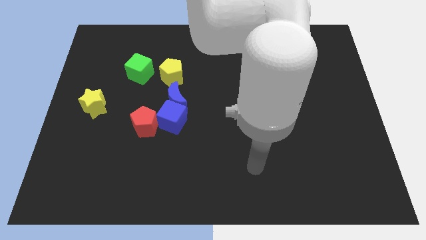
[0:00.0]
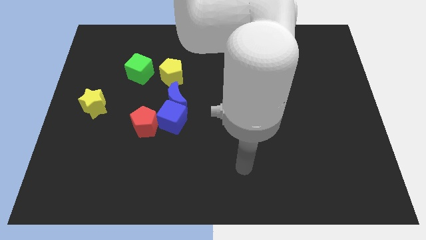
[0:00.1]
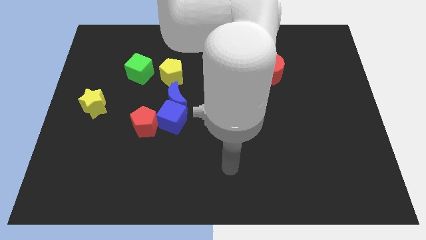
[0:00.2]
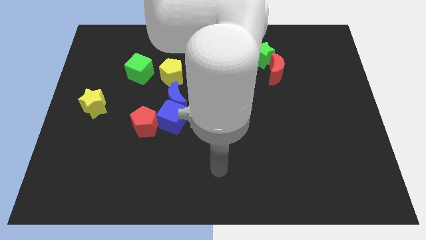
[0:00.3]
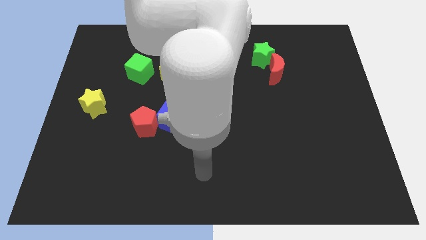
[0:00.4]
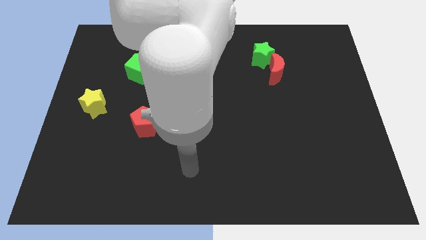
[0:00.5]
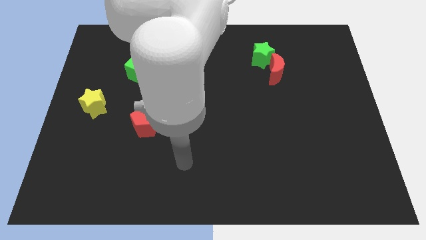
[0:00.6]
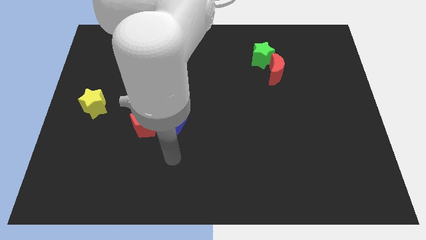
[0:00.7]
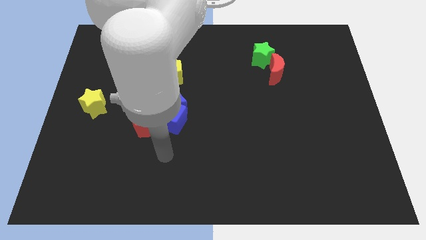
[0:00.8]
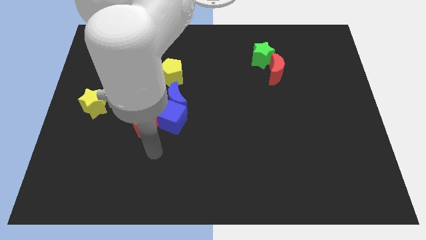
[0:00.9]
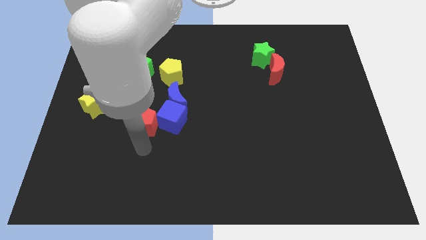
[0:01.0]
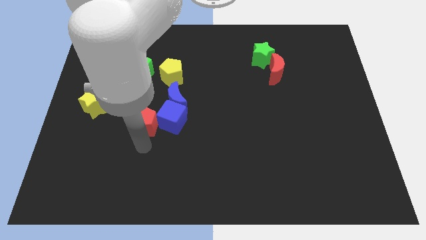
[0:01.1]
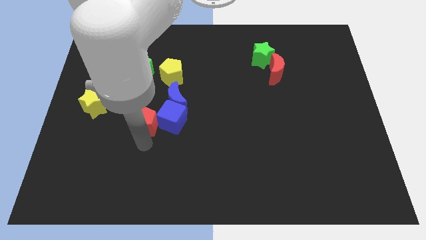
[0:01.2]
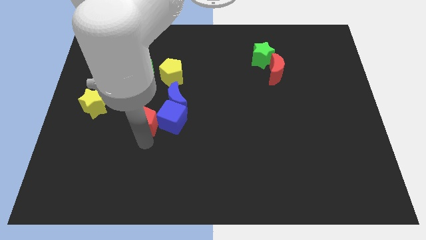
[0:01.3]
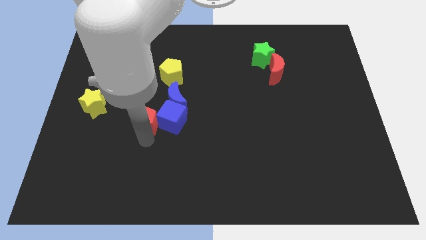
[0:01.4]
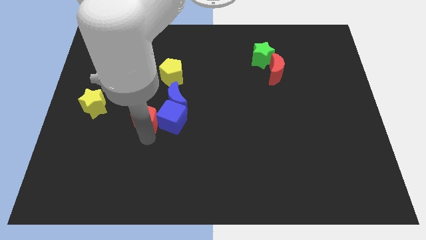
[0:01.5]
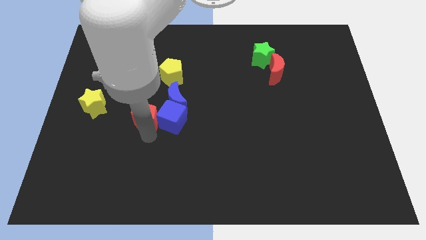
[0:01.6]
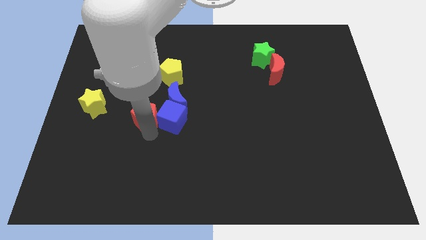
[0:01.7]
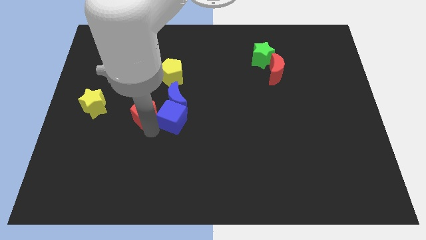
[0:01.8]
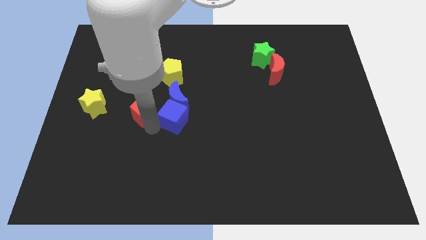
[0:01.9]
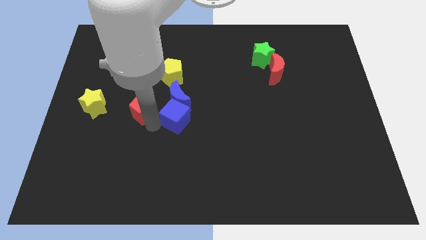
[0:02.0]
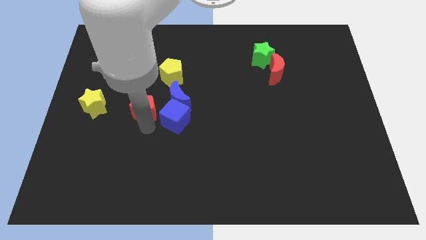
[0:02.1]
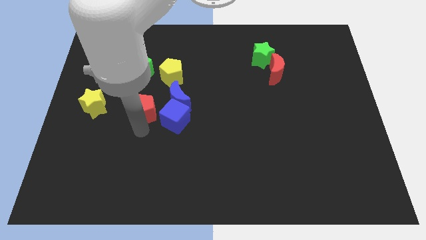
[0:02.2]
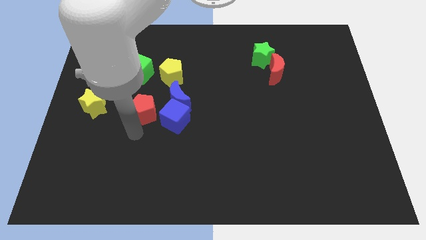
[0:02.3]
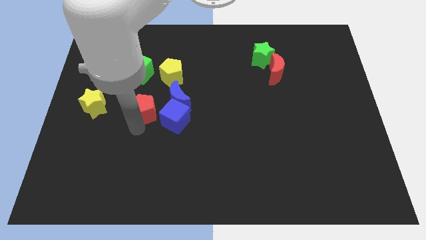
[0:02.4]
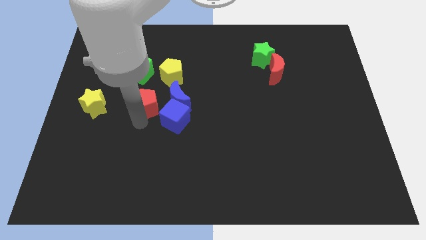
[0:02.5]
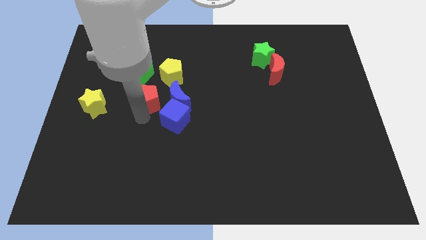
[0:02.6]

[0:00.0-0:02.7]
move the red pentagon upwards a little bit

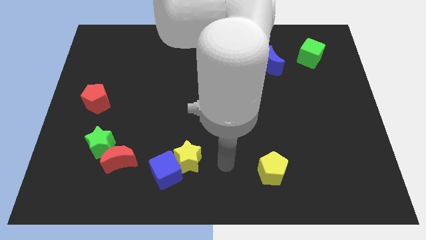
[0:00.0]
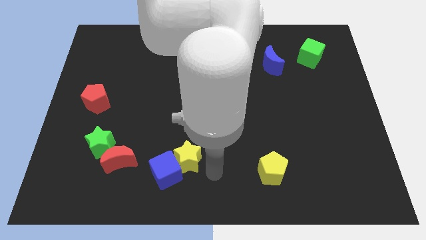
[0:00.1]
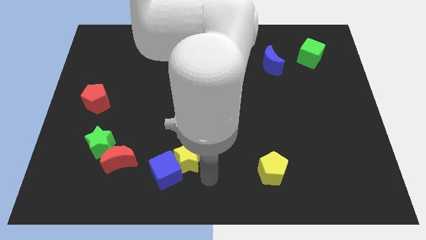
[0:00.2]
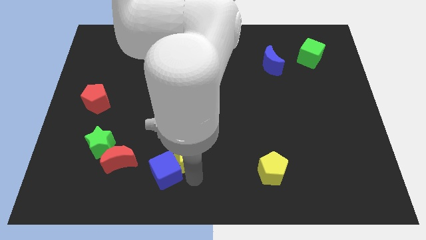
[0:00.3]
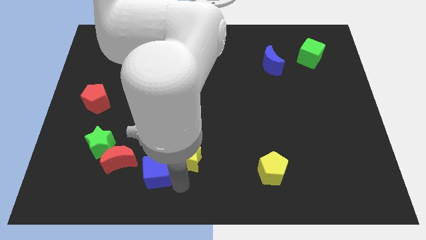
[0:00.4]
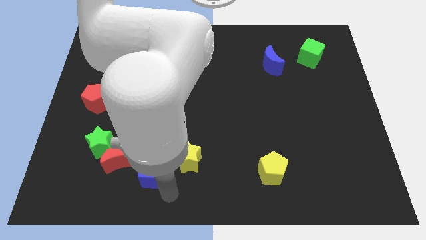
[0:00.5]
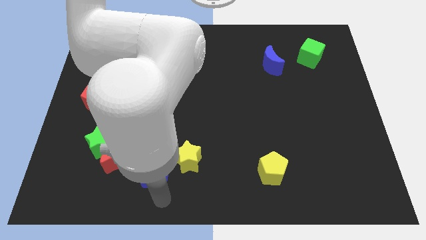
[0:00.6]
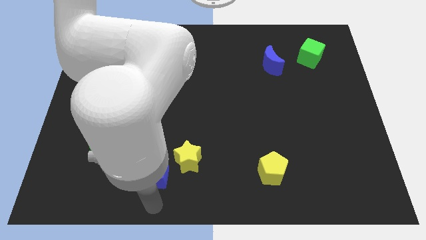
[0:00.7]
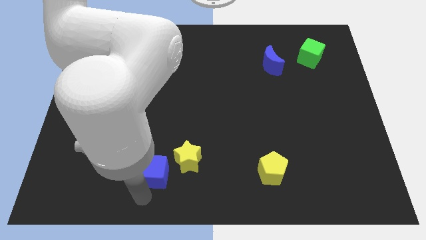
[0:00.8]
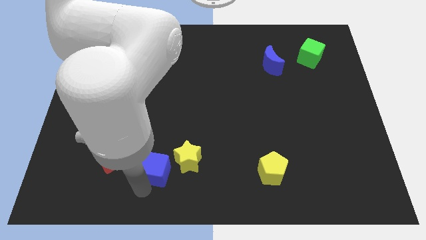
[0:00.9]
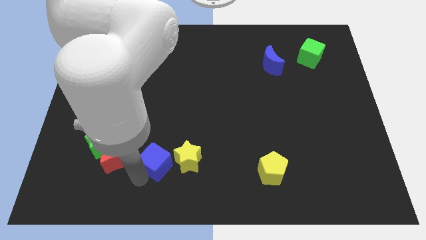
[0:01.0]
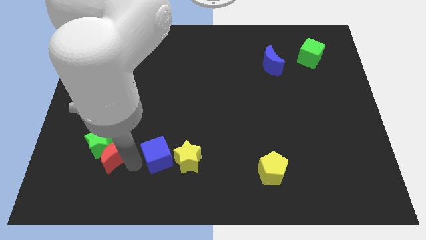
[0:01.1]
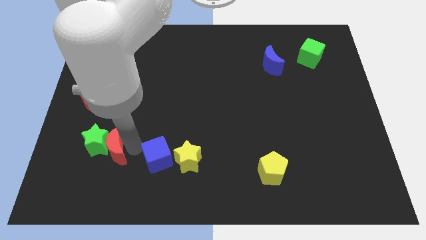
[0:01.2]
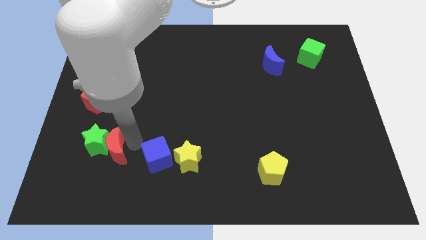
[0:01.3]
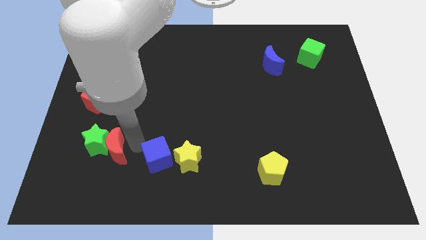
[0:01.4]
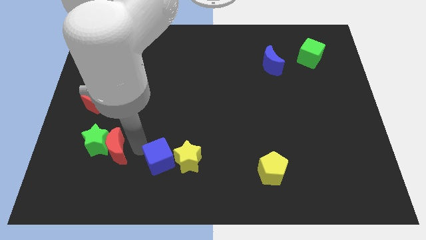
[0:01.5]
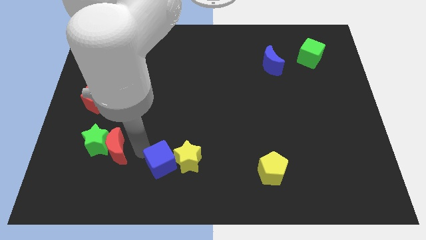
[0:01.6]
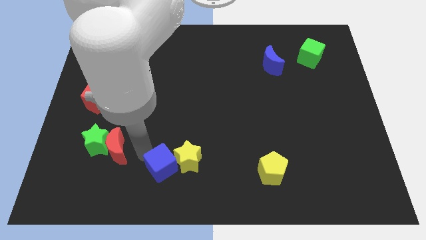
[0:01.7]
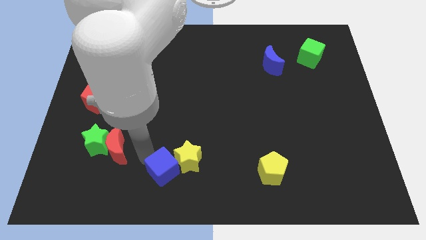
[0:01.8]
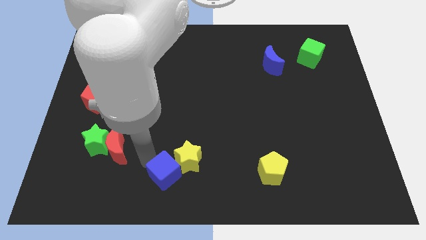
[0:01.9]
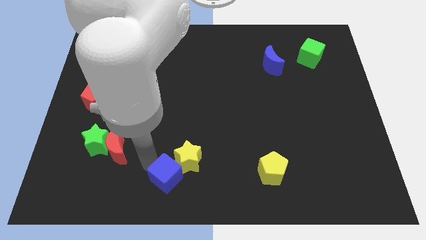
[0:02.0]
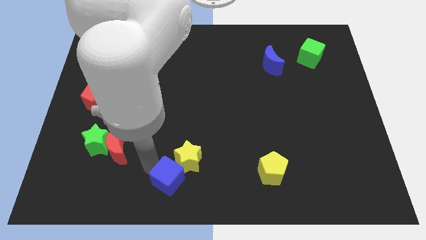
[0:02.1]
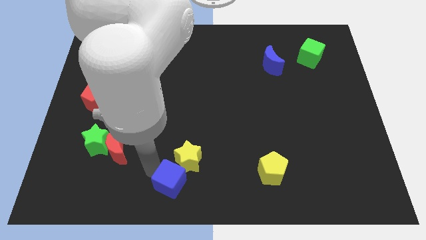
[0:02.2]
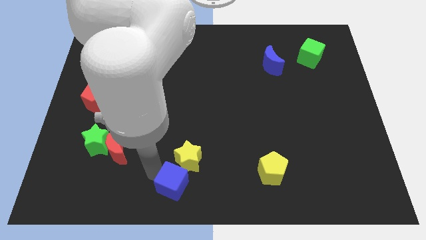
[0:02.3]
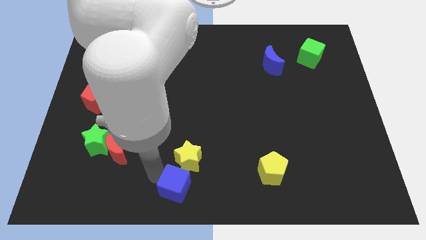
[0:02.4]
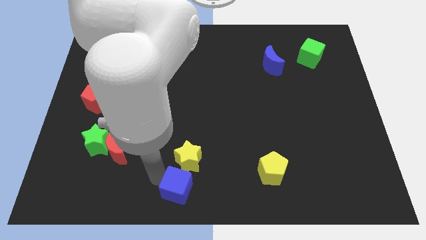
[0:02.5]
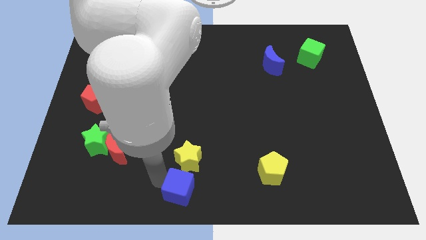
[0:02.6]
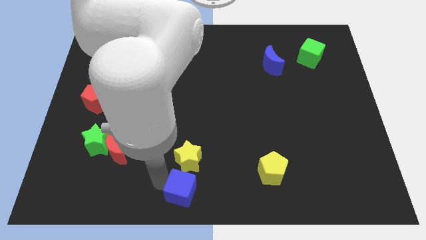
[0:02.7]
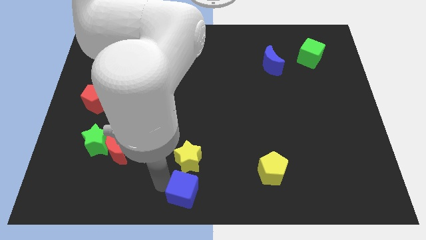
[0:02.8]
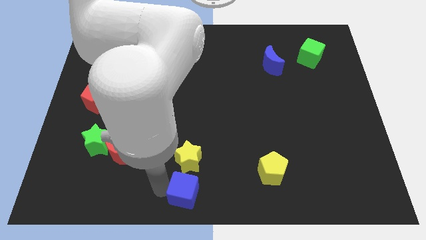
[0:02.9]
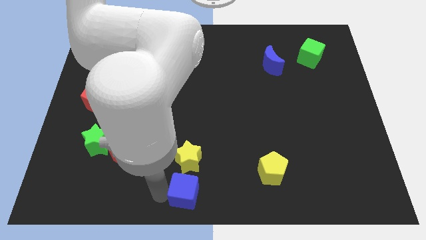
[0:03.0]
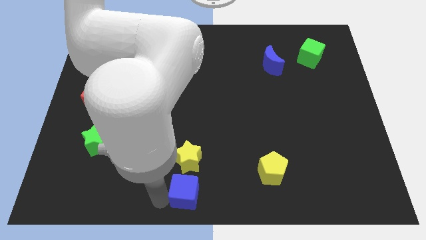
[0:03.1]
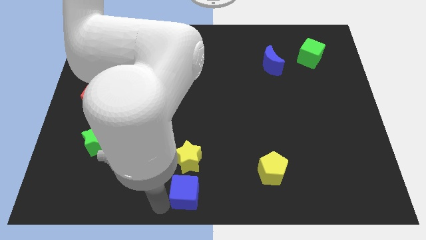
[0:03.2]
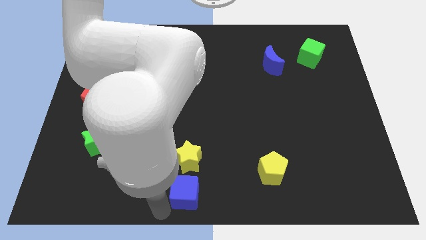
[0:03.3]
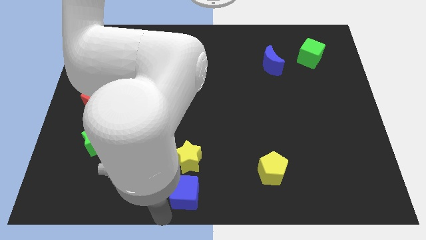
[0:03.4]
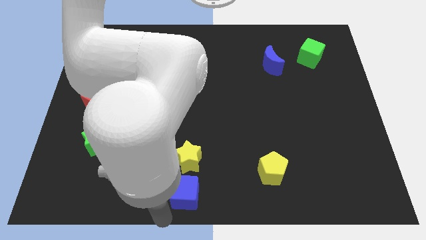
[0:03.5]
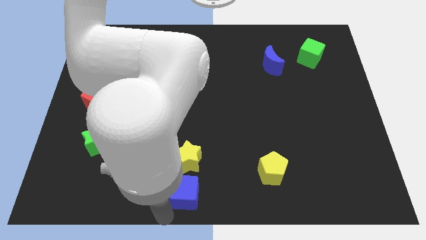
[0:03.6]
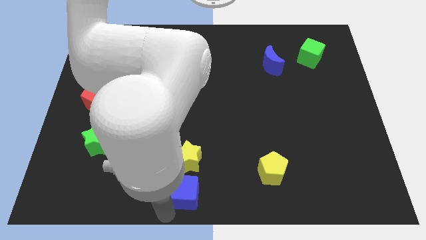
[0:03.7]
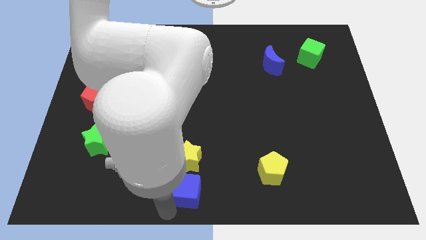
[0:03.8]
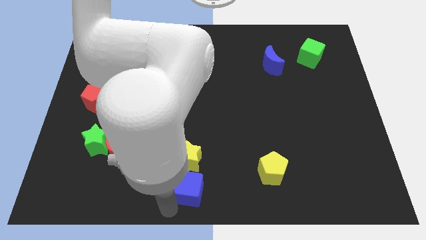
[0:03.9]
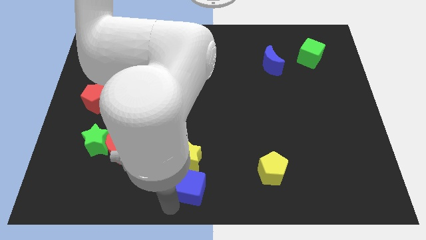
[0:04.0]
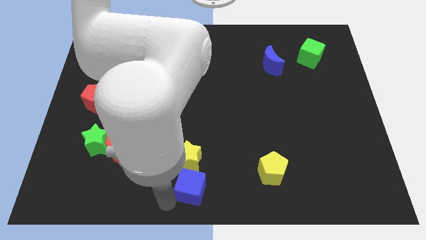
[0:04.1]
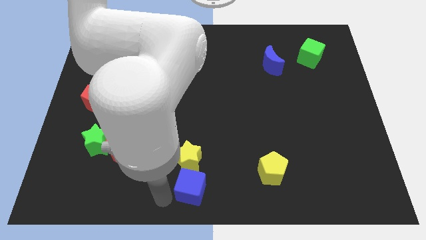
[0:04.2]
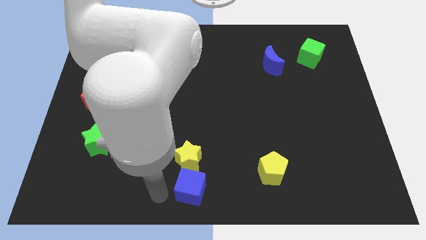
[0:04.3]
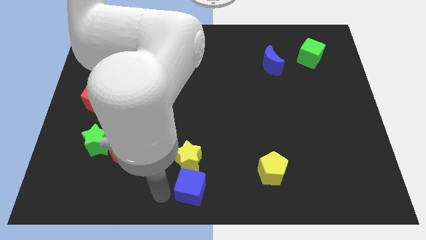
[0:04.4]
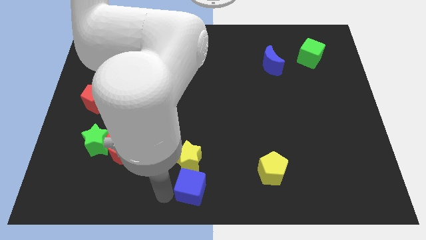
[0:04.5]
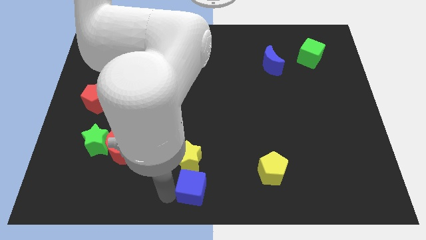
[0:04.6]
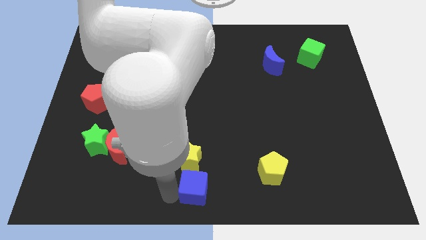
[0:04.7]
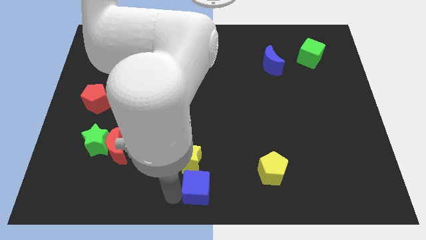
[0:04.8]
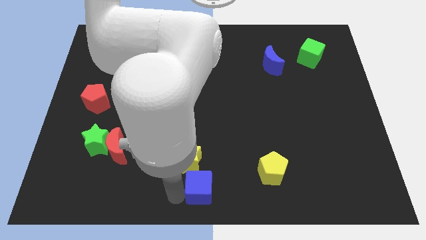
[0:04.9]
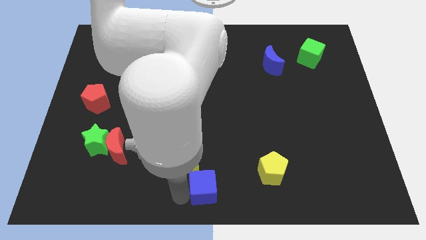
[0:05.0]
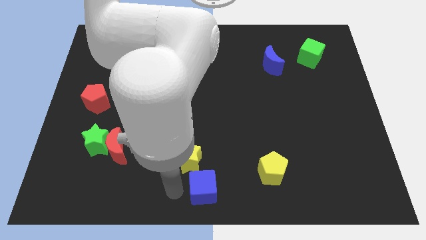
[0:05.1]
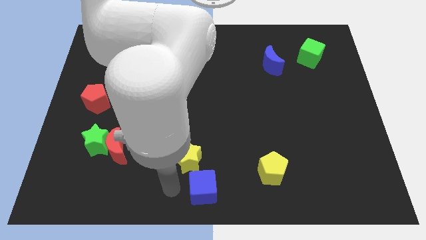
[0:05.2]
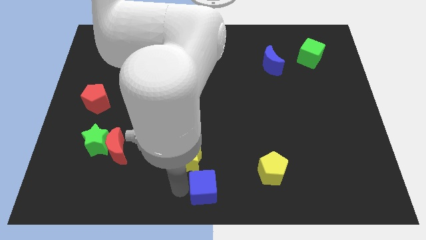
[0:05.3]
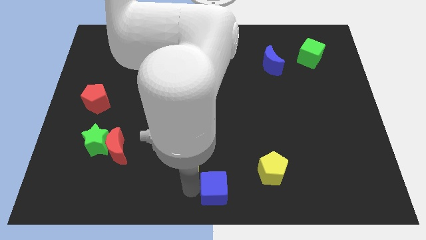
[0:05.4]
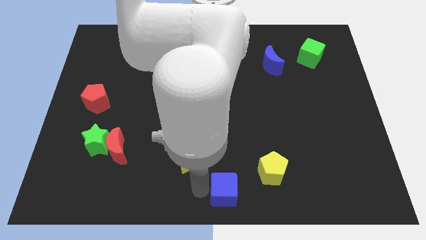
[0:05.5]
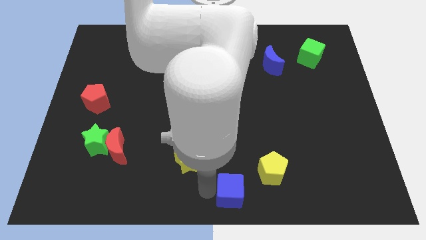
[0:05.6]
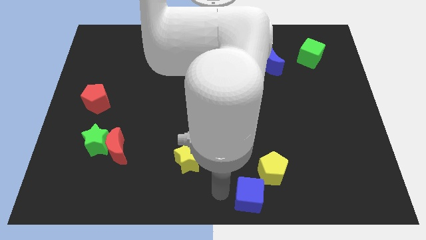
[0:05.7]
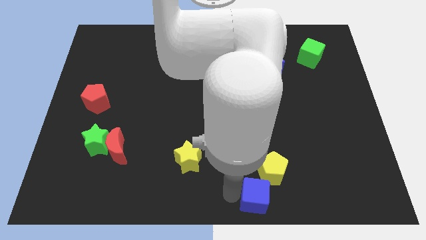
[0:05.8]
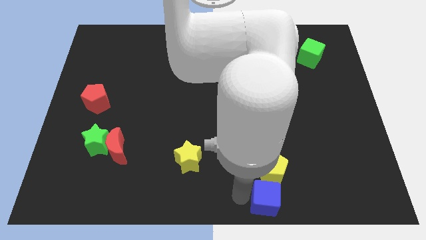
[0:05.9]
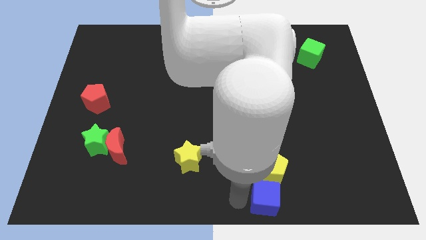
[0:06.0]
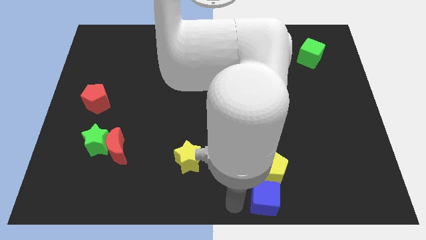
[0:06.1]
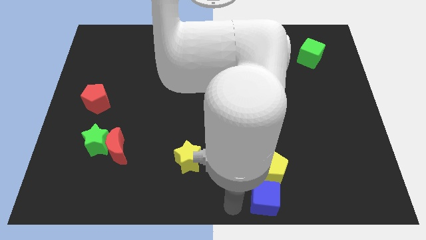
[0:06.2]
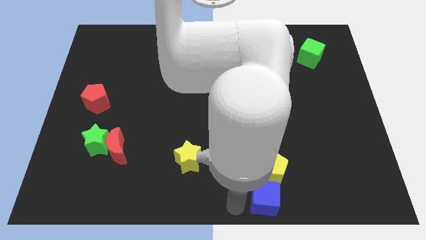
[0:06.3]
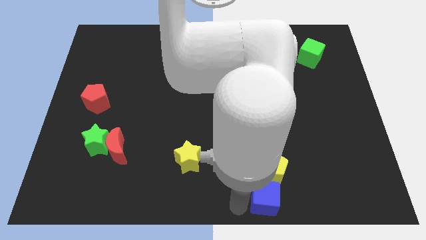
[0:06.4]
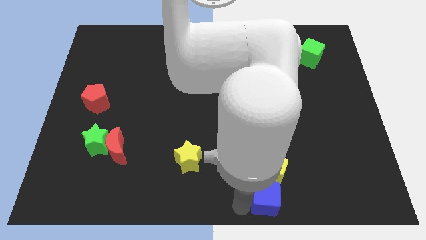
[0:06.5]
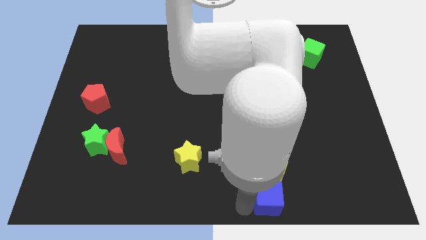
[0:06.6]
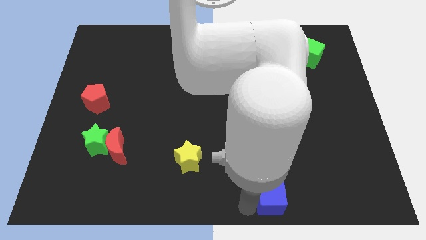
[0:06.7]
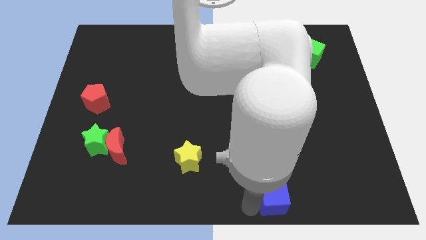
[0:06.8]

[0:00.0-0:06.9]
move the blue cube to the right
